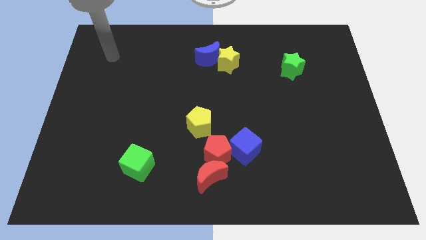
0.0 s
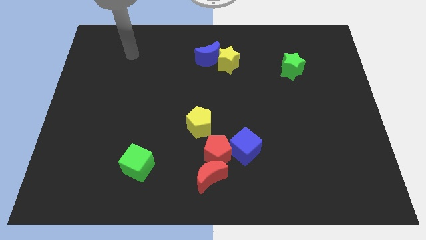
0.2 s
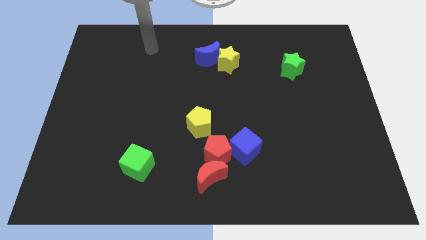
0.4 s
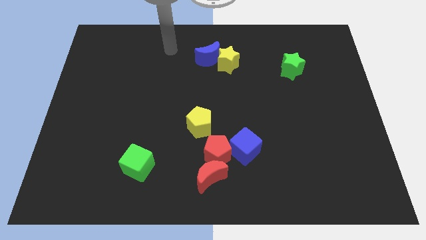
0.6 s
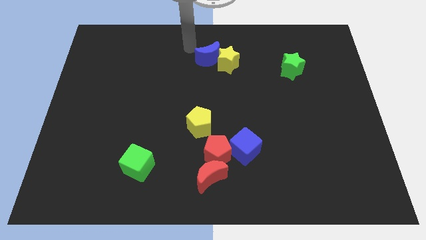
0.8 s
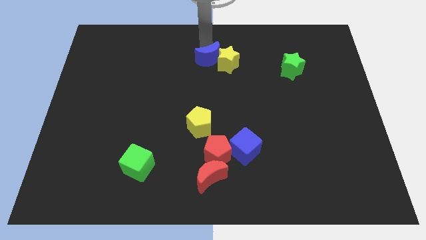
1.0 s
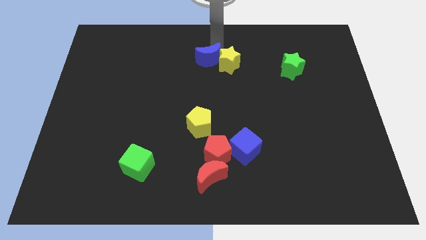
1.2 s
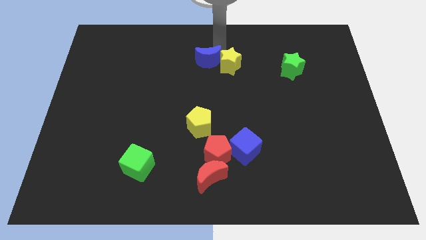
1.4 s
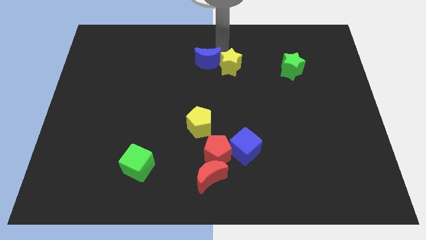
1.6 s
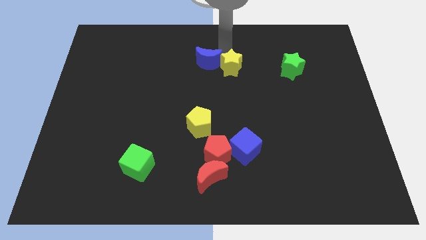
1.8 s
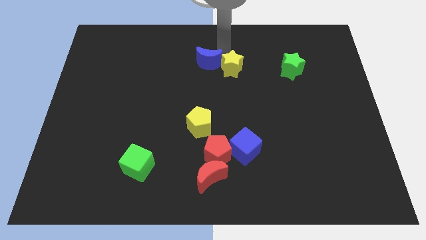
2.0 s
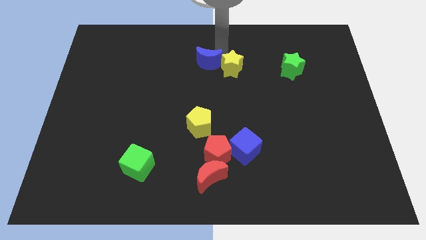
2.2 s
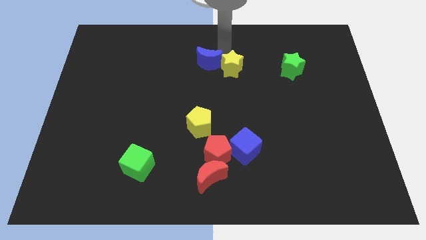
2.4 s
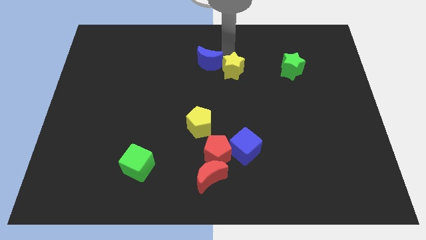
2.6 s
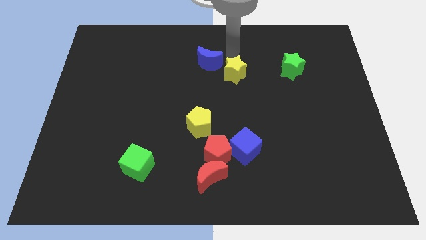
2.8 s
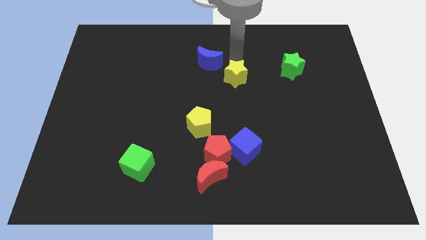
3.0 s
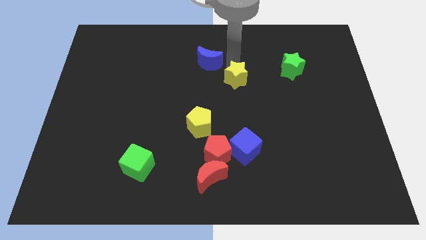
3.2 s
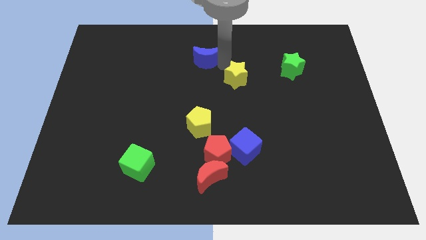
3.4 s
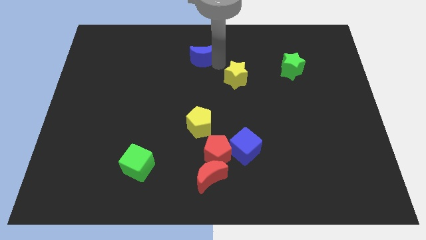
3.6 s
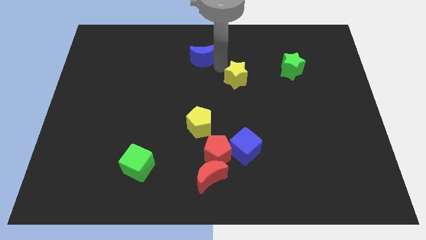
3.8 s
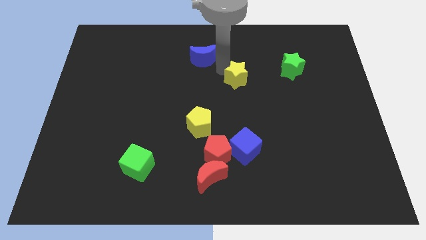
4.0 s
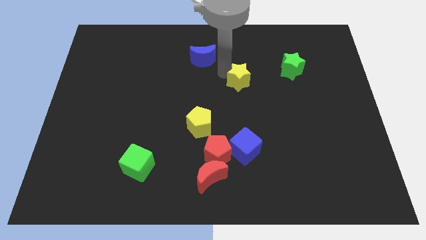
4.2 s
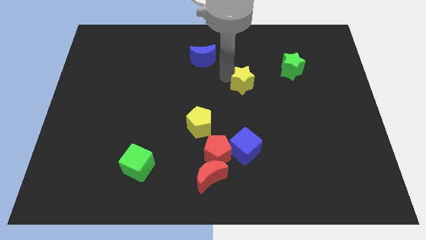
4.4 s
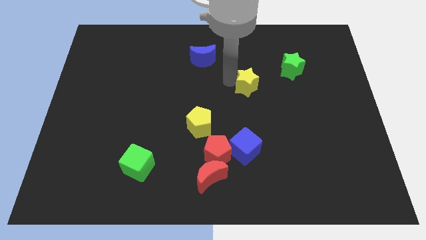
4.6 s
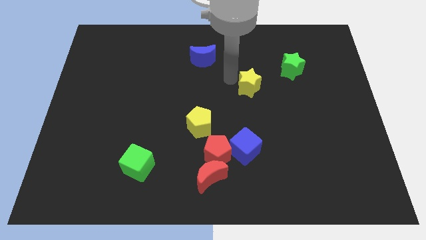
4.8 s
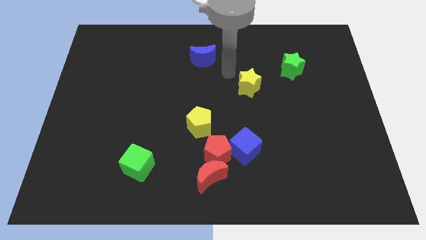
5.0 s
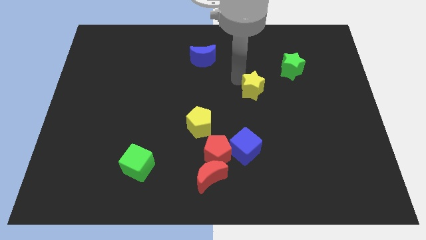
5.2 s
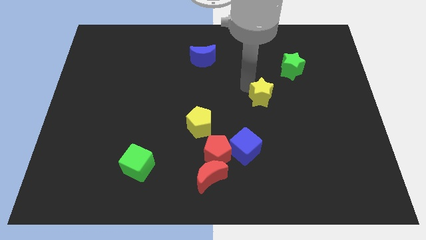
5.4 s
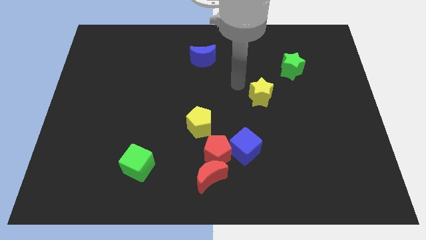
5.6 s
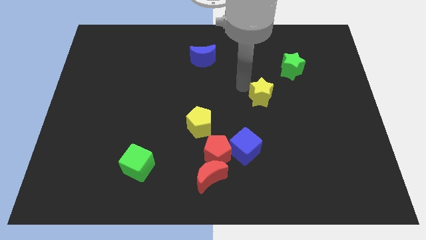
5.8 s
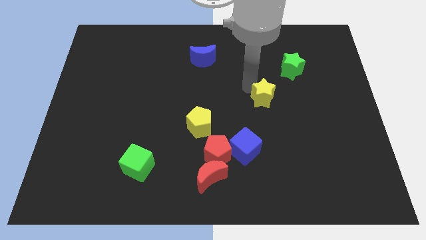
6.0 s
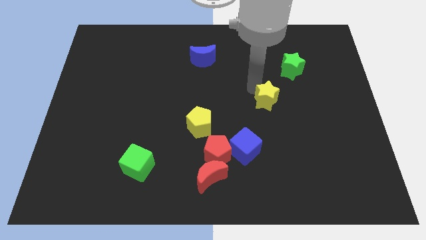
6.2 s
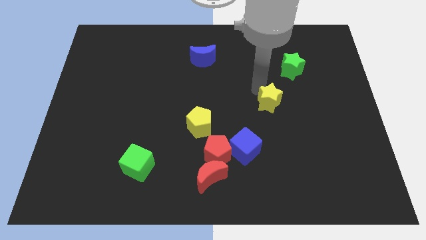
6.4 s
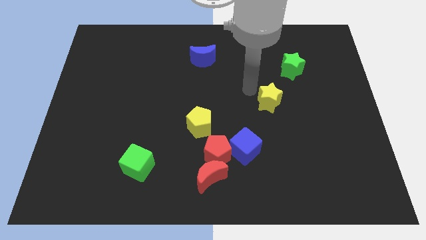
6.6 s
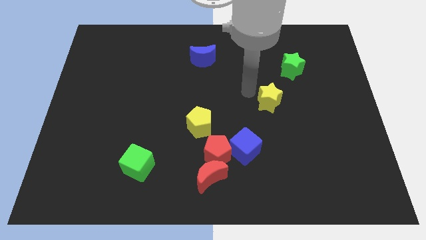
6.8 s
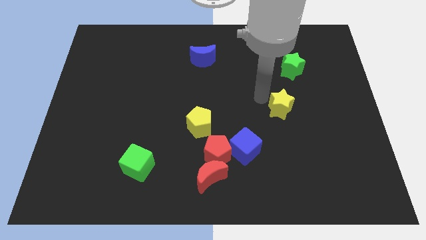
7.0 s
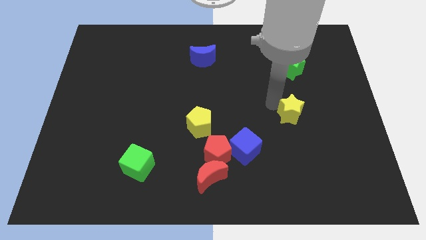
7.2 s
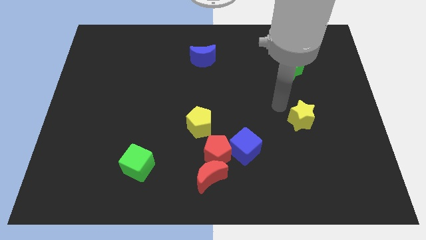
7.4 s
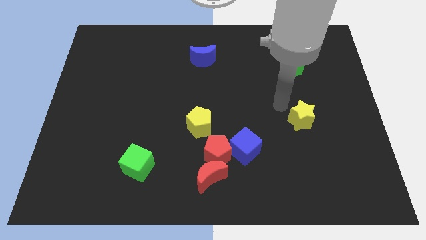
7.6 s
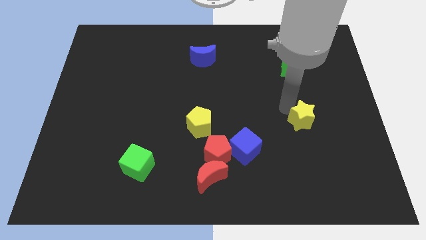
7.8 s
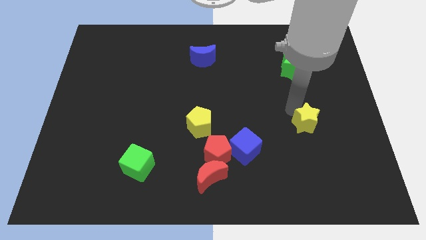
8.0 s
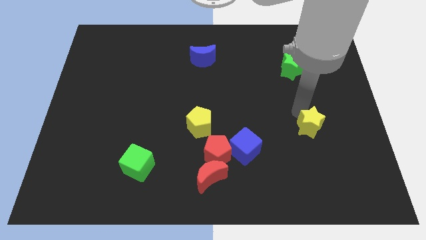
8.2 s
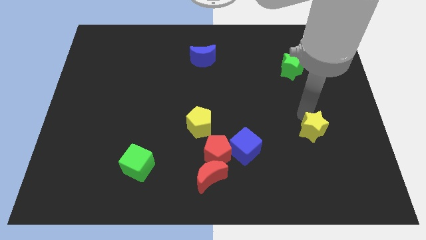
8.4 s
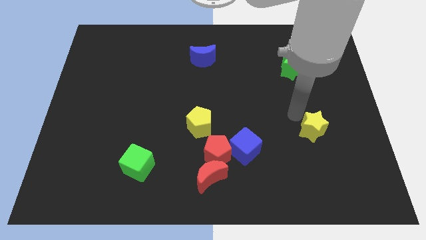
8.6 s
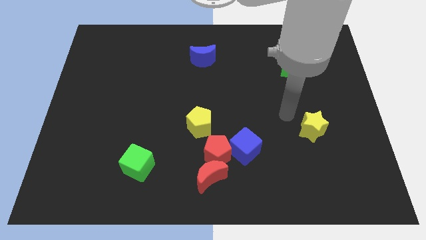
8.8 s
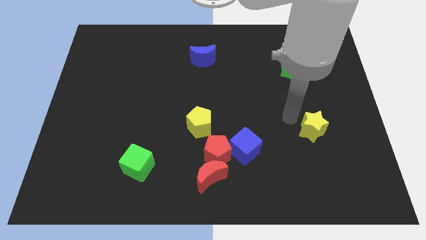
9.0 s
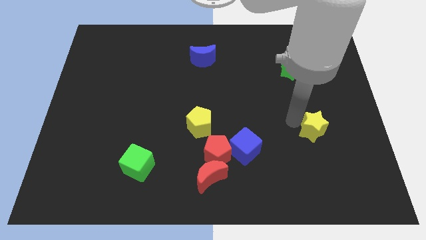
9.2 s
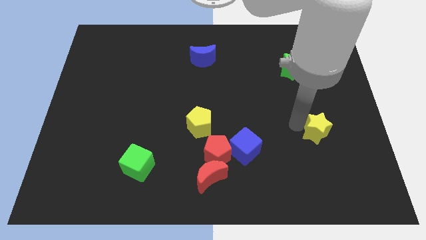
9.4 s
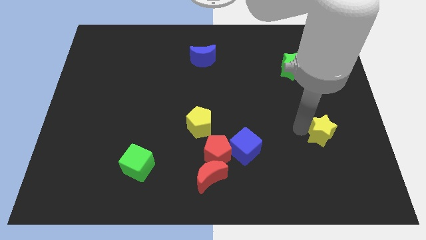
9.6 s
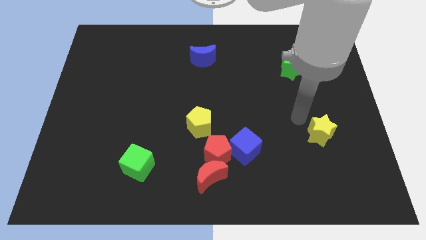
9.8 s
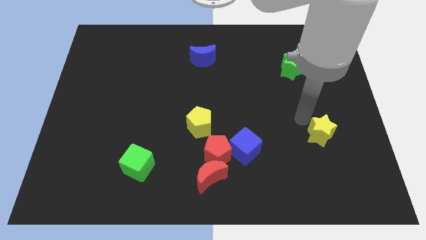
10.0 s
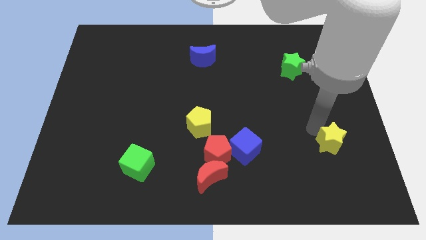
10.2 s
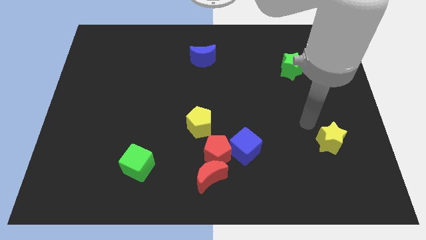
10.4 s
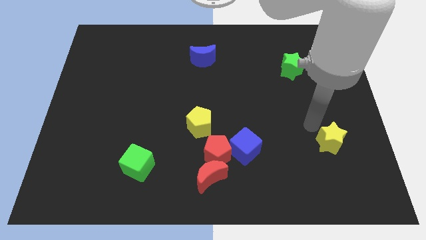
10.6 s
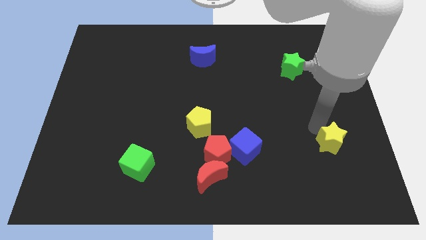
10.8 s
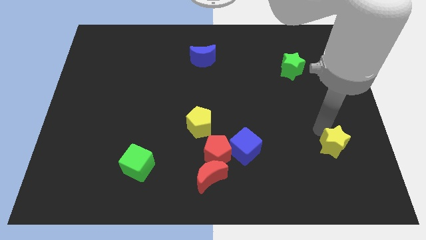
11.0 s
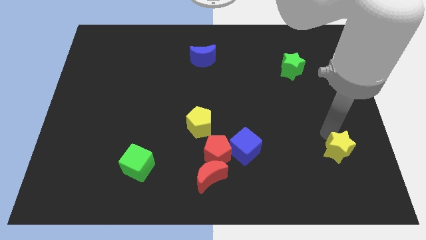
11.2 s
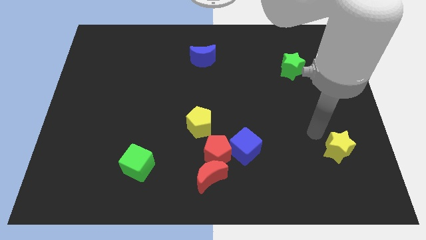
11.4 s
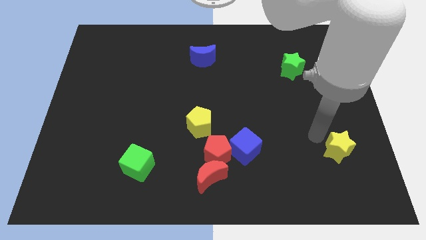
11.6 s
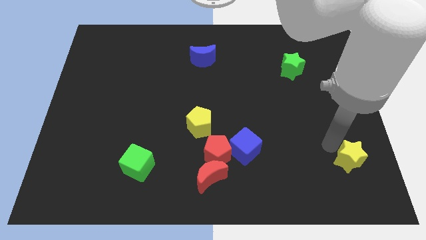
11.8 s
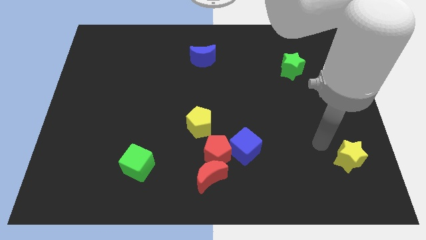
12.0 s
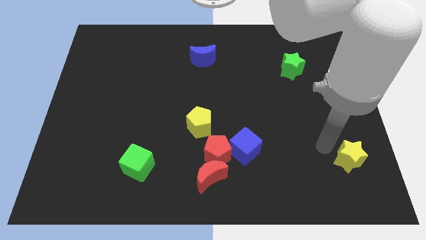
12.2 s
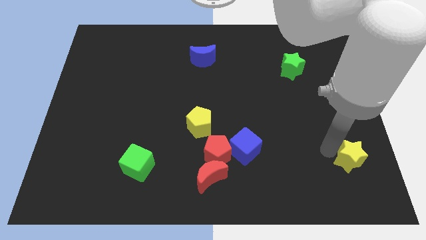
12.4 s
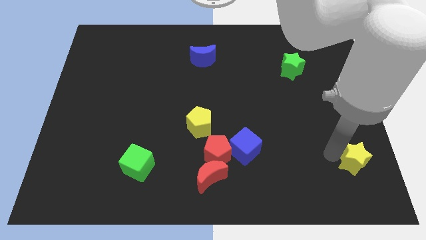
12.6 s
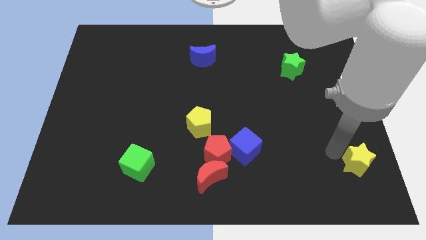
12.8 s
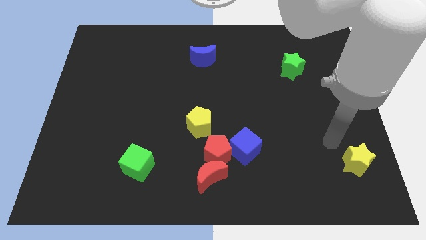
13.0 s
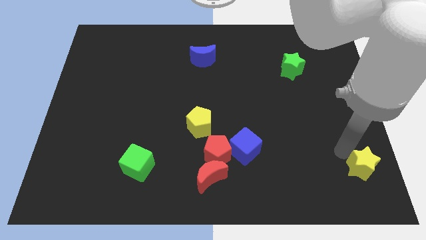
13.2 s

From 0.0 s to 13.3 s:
push the yellow star to the lower right corner
